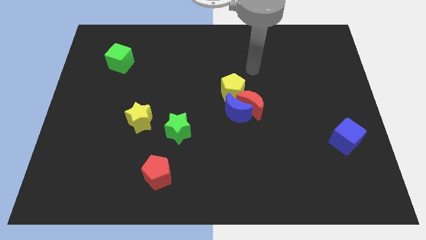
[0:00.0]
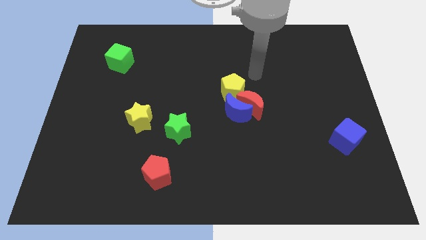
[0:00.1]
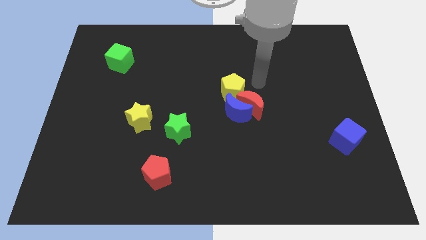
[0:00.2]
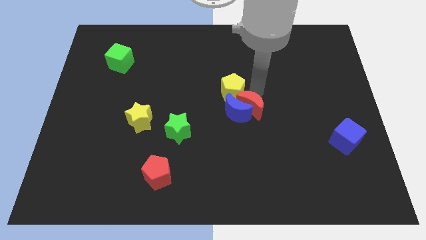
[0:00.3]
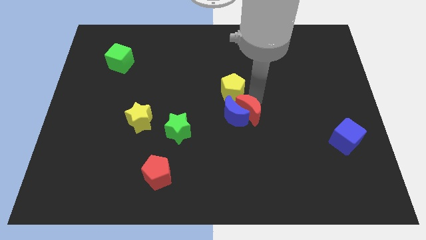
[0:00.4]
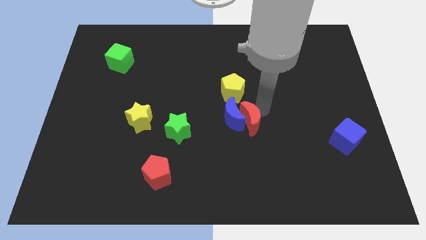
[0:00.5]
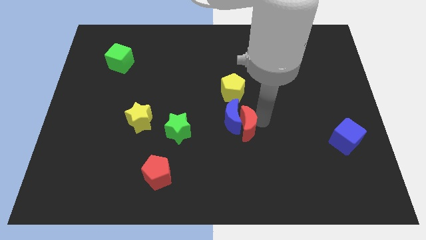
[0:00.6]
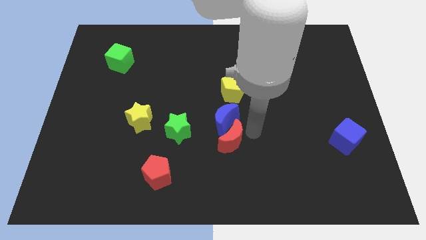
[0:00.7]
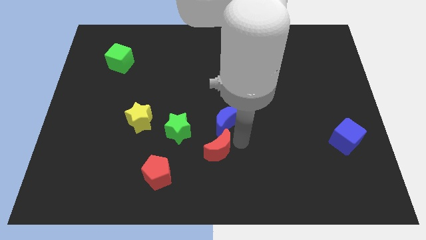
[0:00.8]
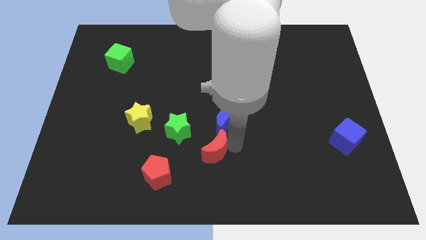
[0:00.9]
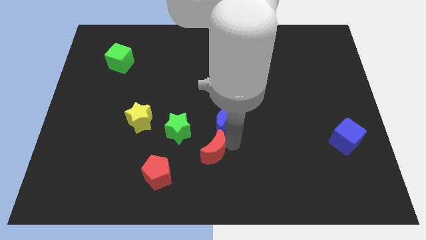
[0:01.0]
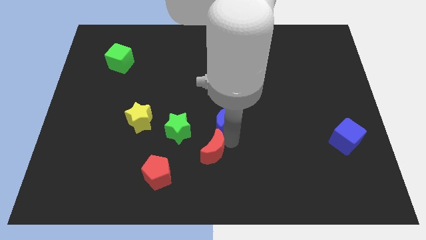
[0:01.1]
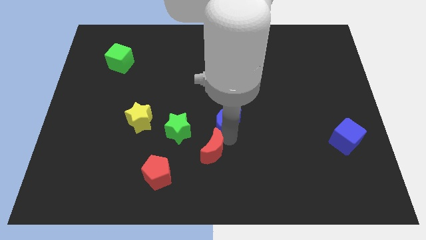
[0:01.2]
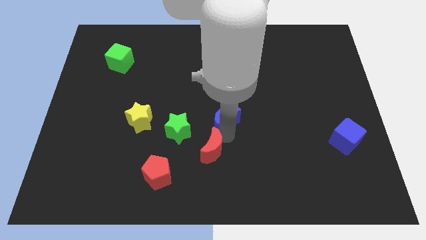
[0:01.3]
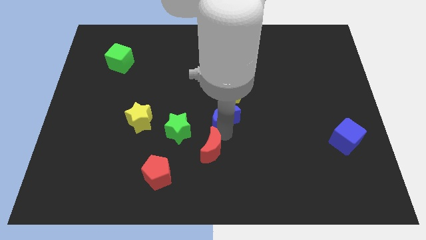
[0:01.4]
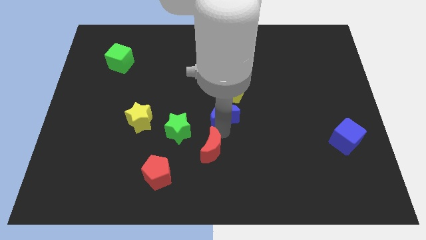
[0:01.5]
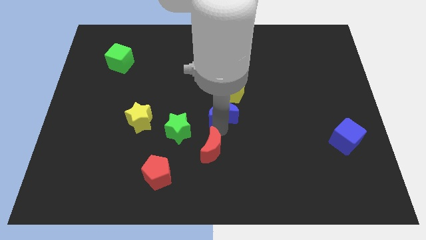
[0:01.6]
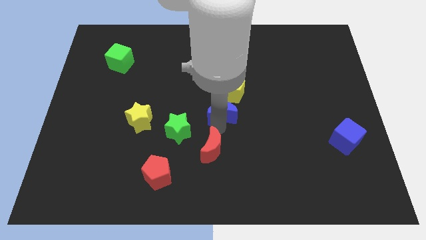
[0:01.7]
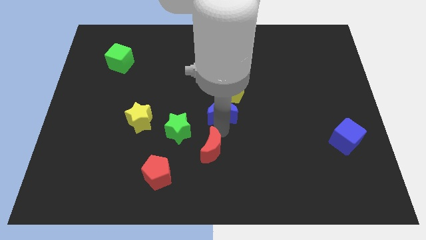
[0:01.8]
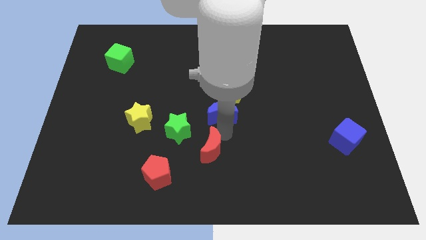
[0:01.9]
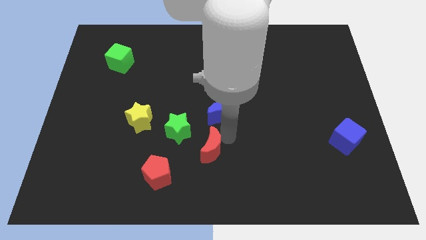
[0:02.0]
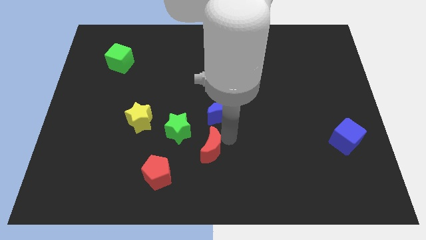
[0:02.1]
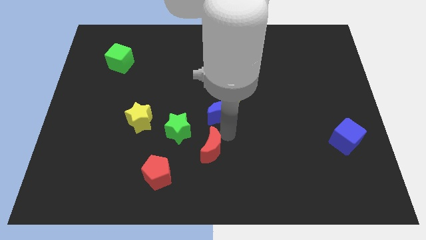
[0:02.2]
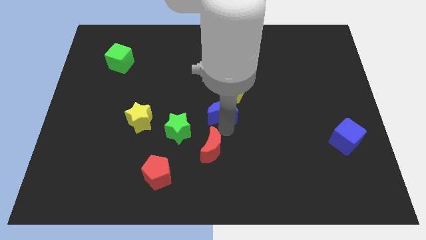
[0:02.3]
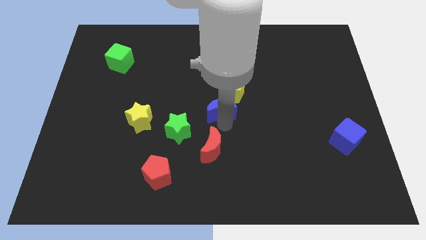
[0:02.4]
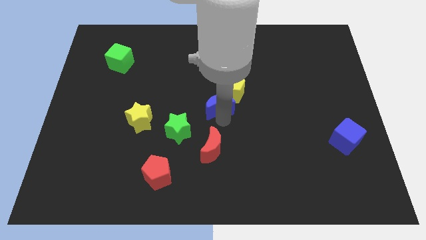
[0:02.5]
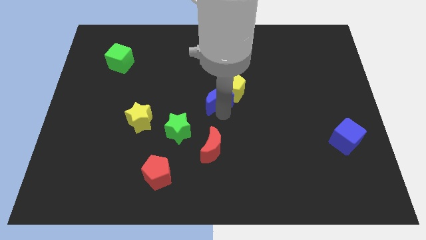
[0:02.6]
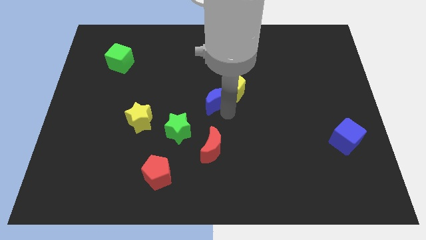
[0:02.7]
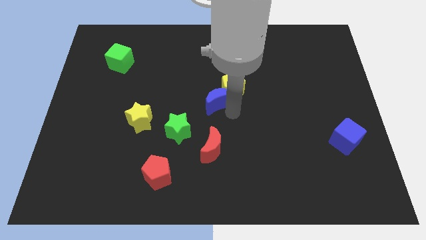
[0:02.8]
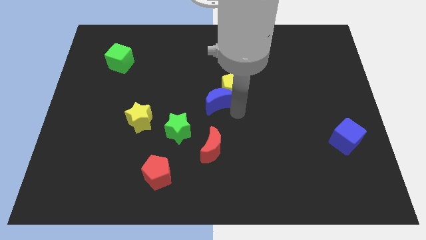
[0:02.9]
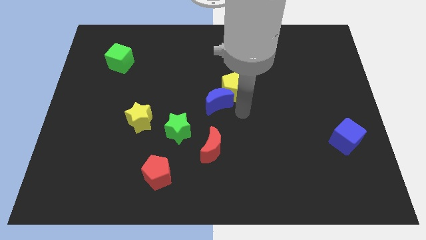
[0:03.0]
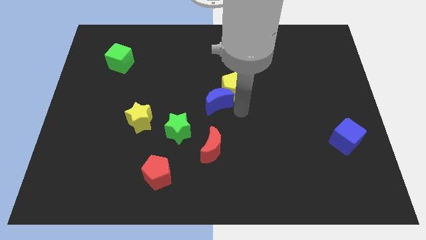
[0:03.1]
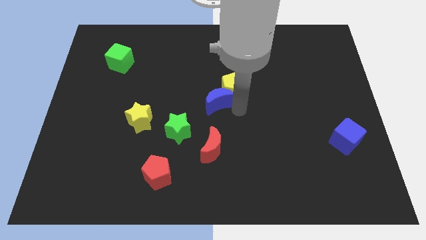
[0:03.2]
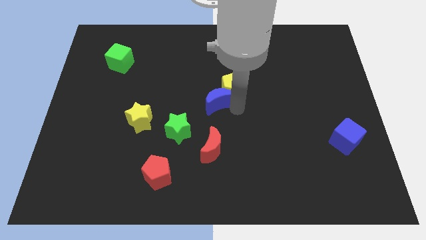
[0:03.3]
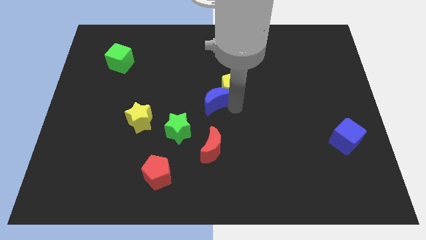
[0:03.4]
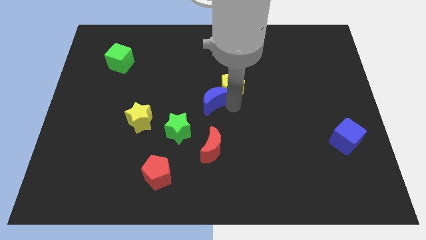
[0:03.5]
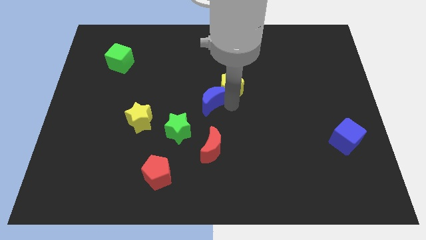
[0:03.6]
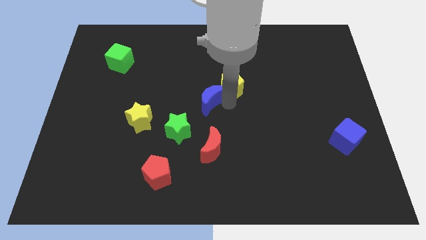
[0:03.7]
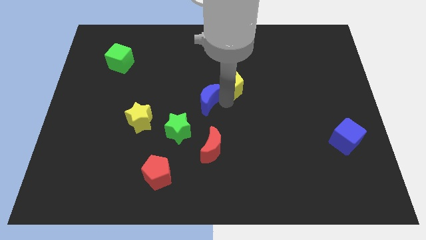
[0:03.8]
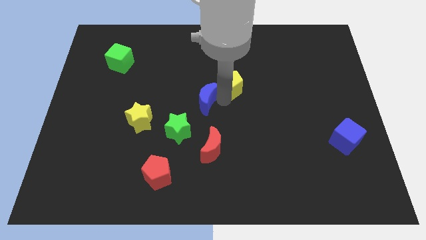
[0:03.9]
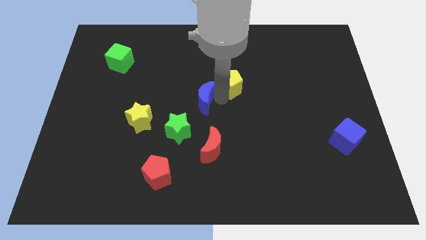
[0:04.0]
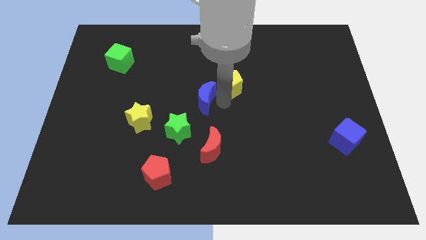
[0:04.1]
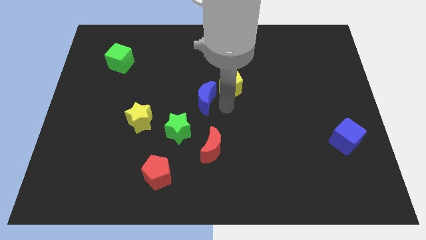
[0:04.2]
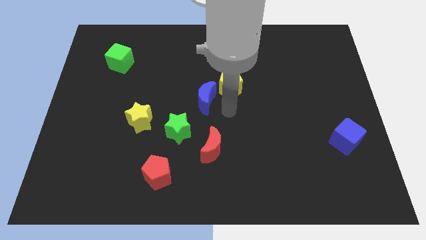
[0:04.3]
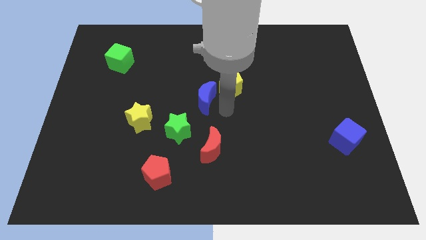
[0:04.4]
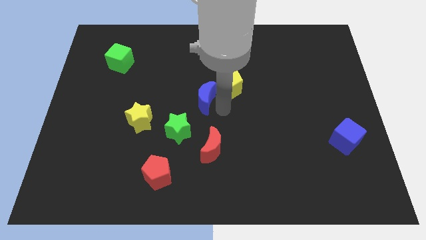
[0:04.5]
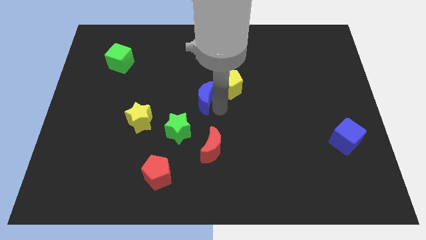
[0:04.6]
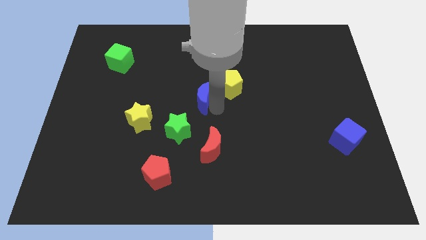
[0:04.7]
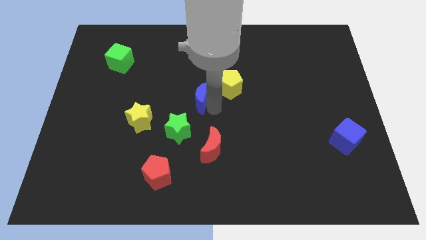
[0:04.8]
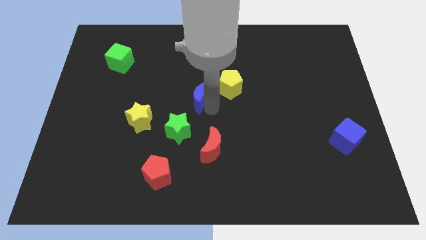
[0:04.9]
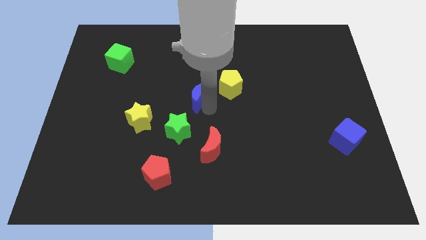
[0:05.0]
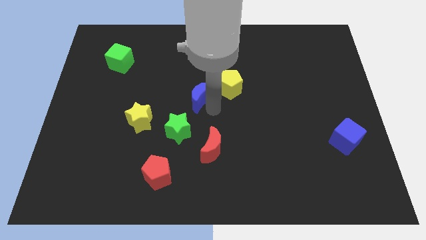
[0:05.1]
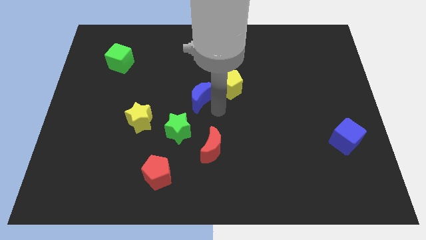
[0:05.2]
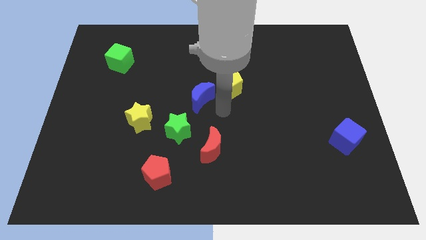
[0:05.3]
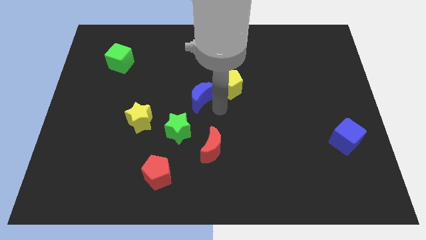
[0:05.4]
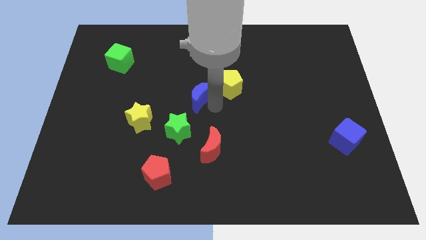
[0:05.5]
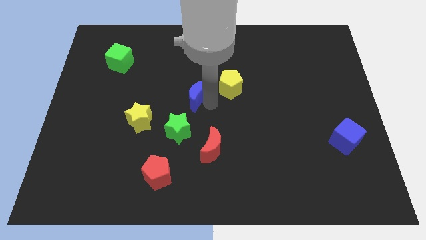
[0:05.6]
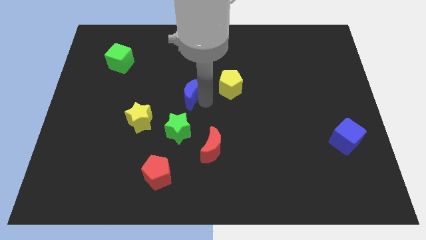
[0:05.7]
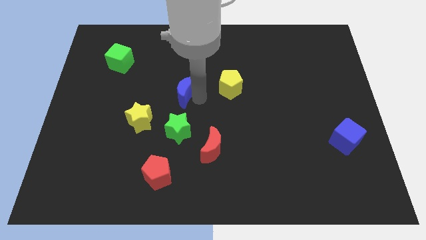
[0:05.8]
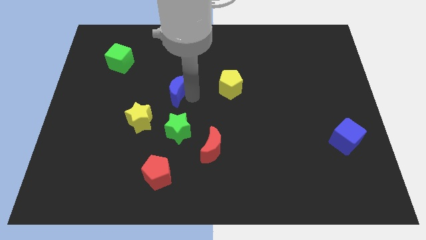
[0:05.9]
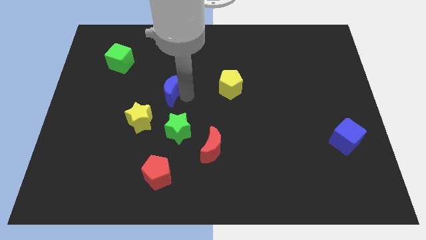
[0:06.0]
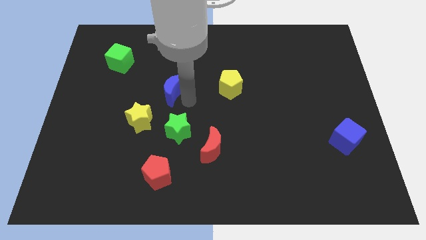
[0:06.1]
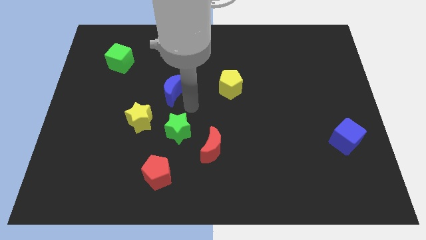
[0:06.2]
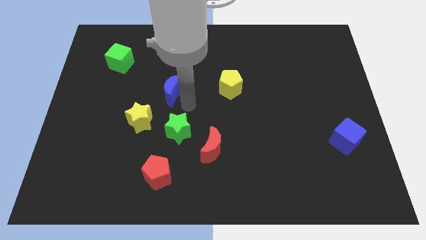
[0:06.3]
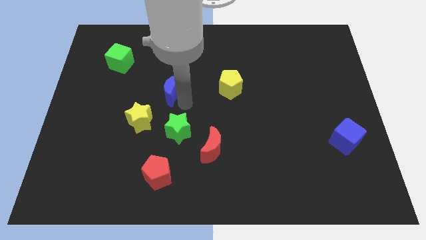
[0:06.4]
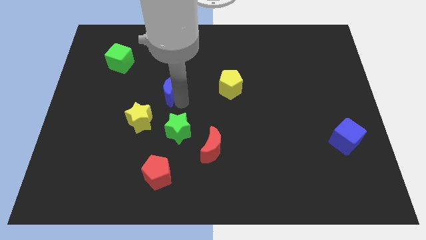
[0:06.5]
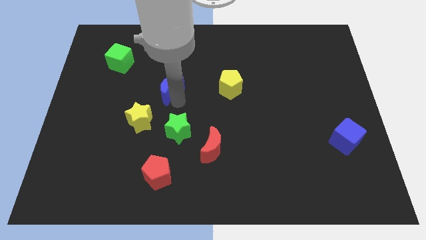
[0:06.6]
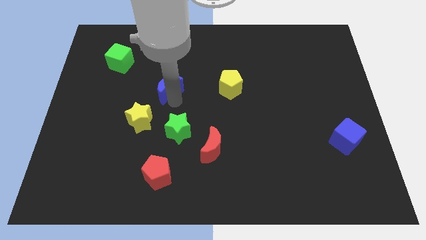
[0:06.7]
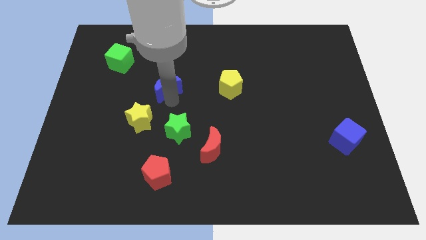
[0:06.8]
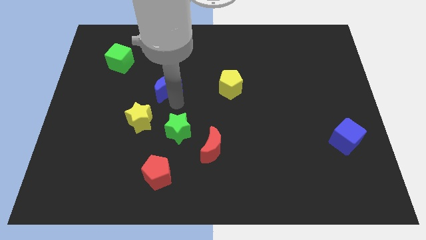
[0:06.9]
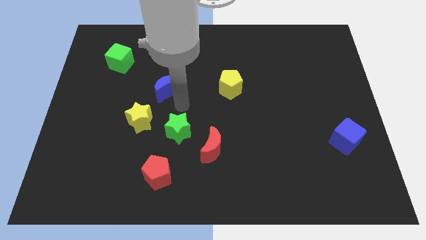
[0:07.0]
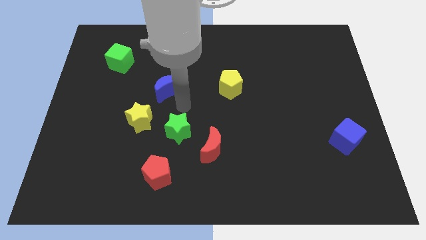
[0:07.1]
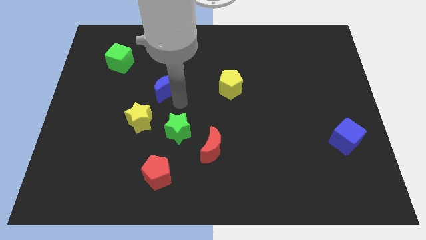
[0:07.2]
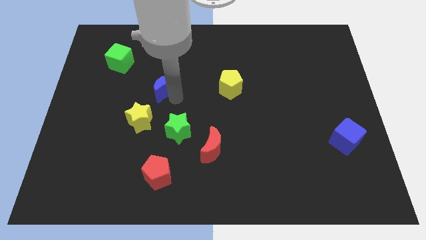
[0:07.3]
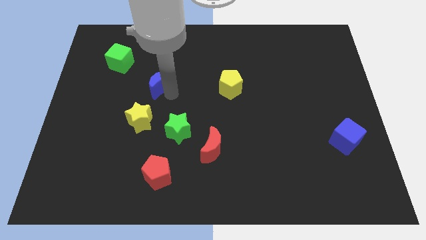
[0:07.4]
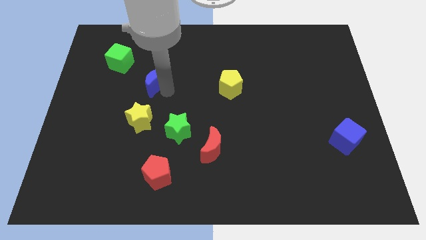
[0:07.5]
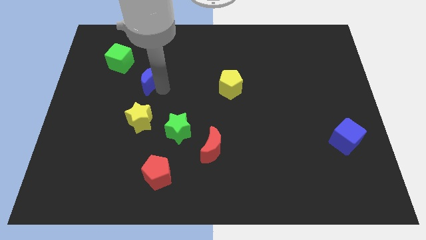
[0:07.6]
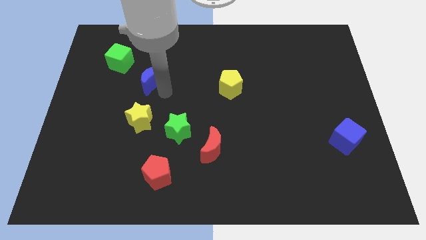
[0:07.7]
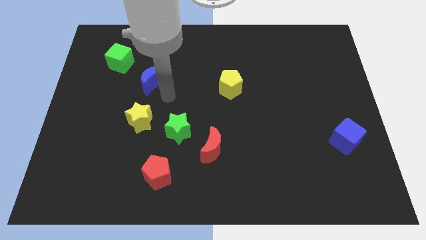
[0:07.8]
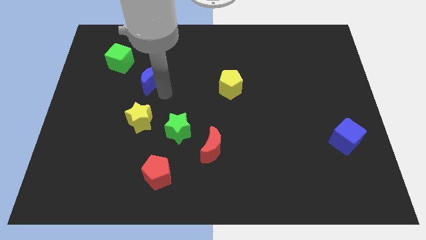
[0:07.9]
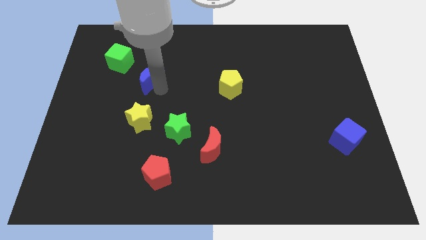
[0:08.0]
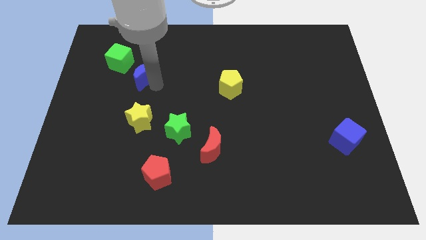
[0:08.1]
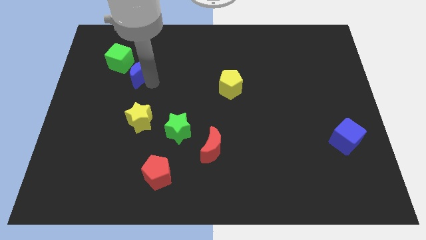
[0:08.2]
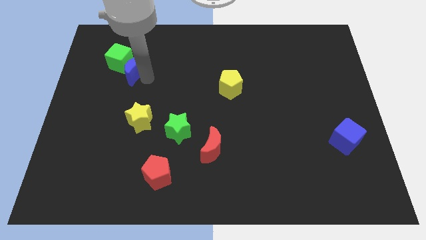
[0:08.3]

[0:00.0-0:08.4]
slide the blue moon next to the green cube
